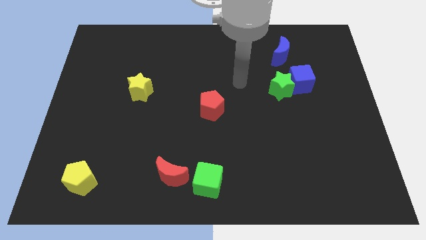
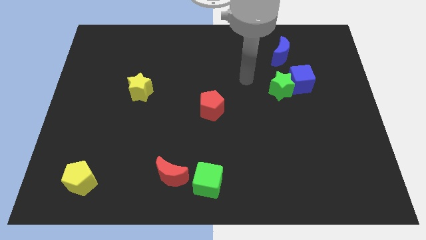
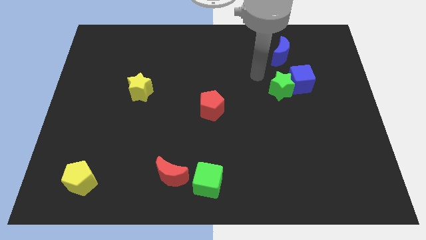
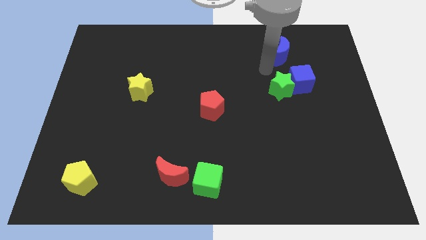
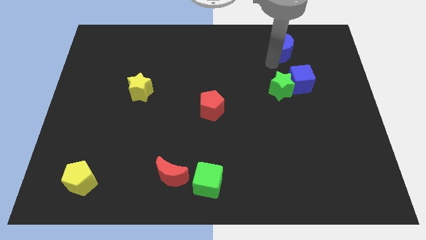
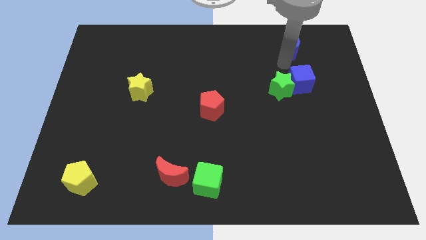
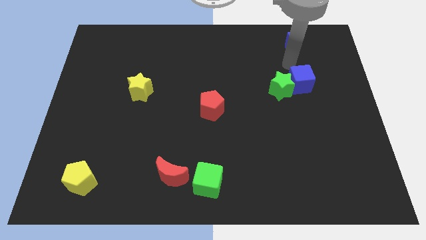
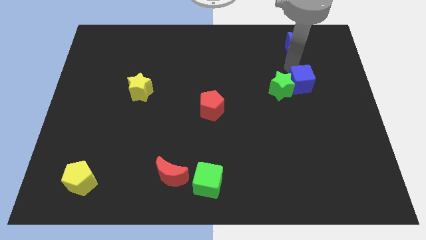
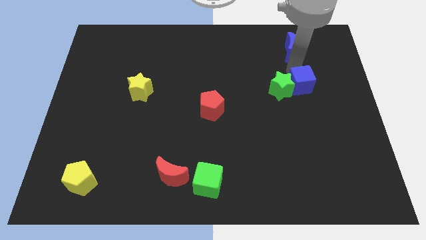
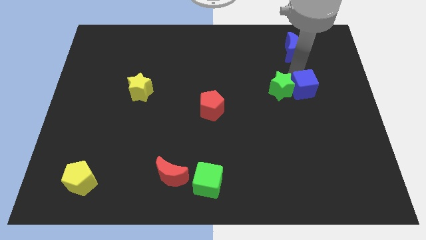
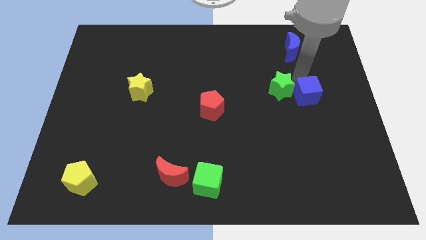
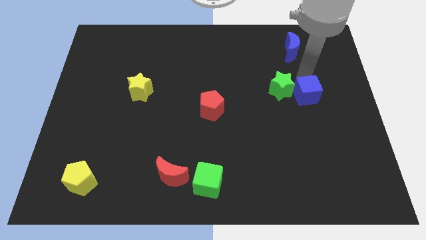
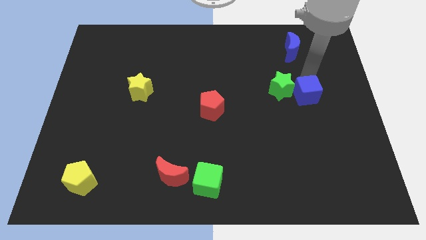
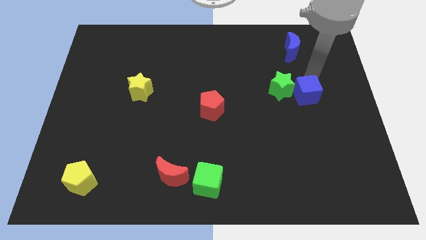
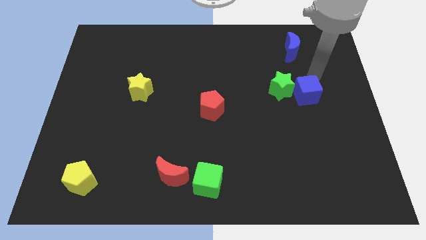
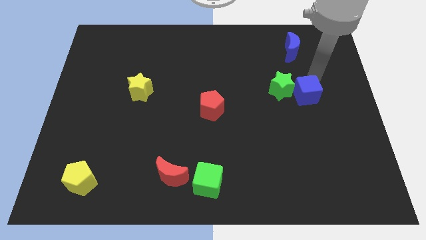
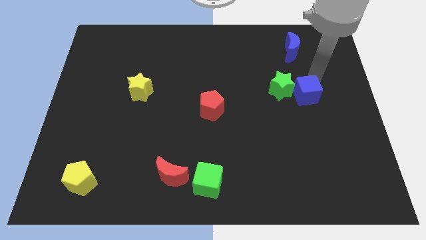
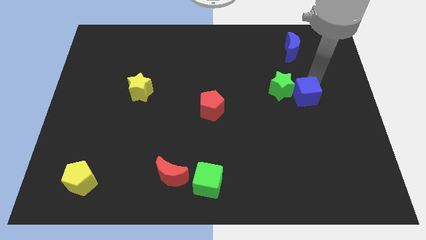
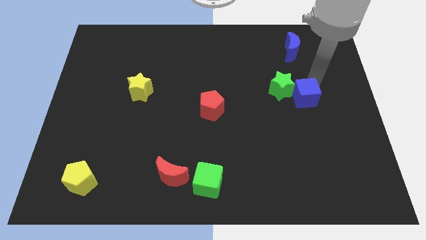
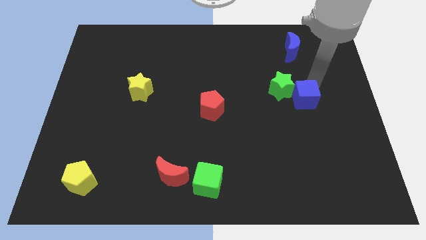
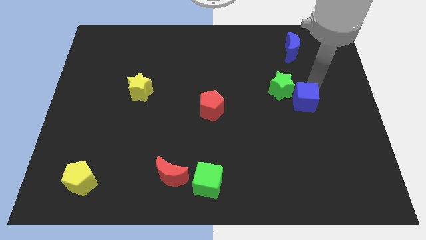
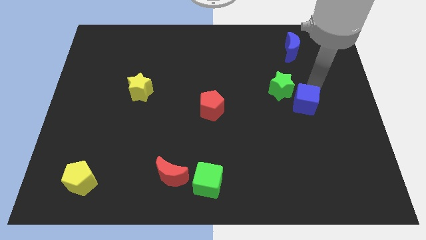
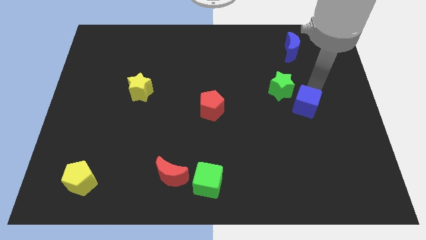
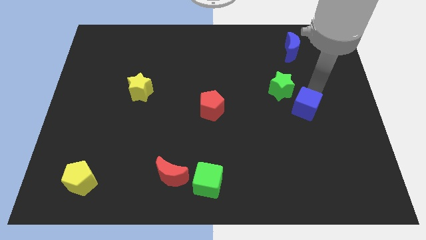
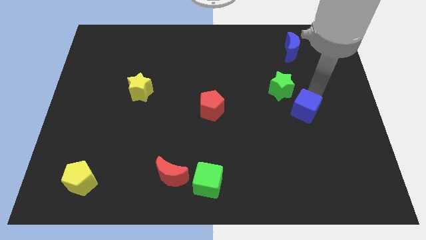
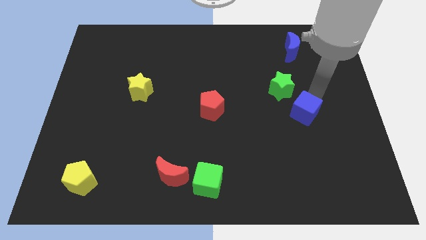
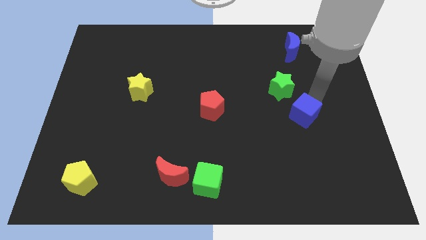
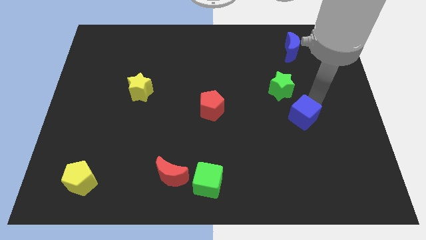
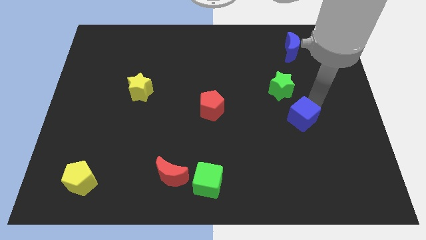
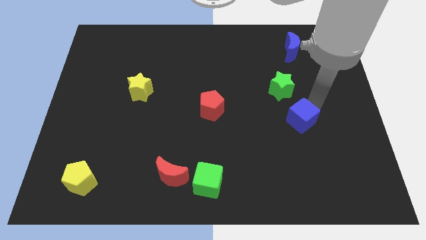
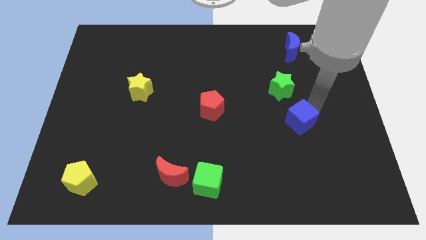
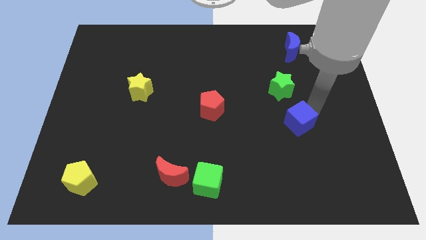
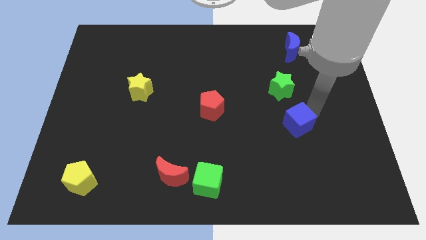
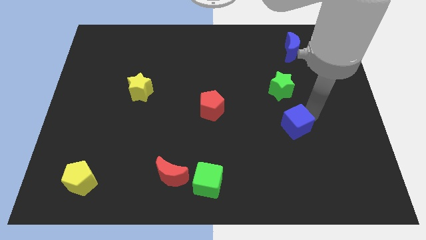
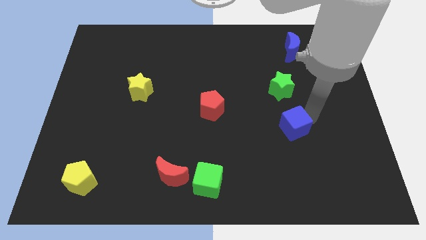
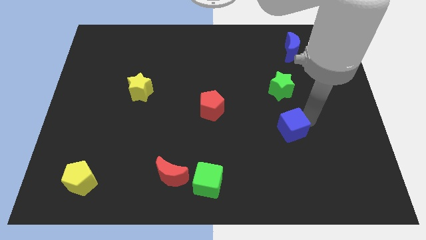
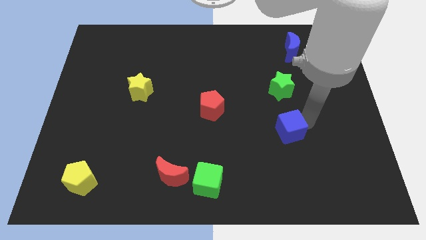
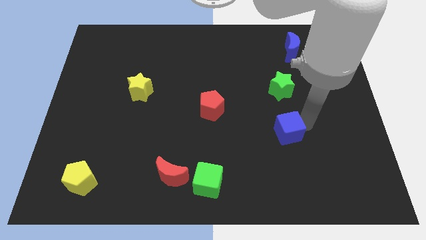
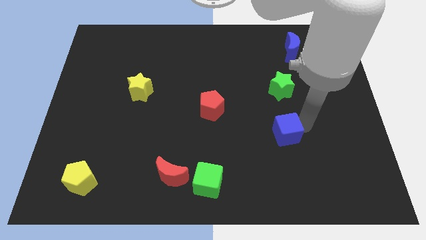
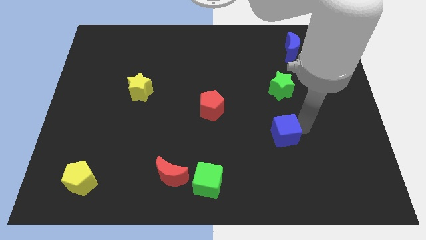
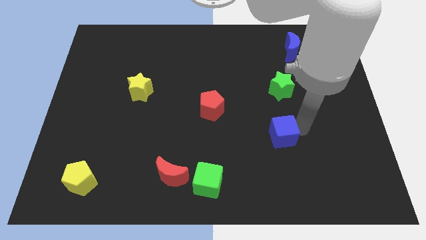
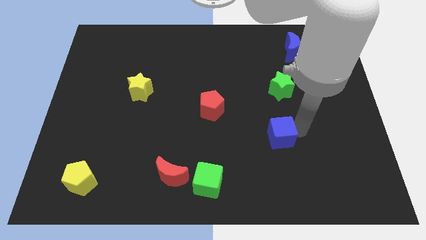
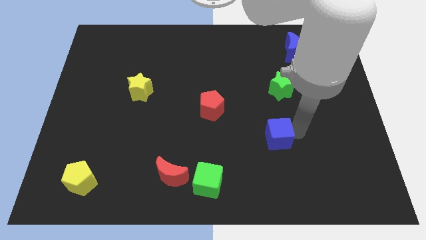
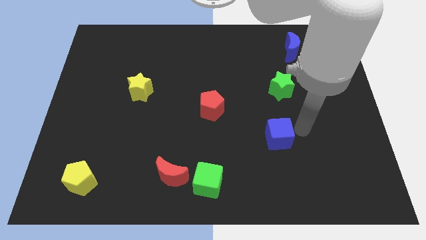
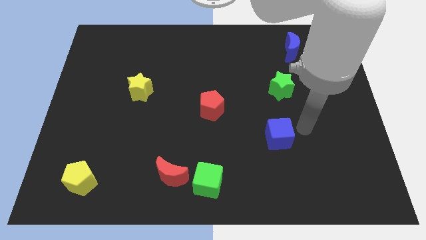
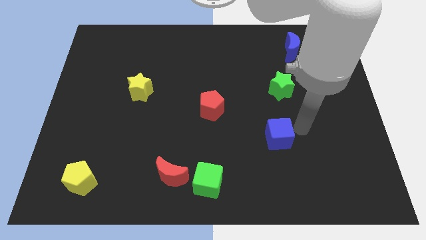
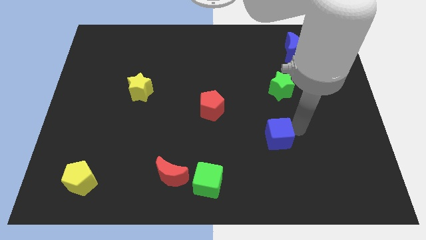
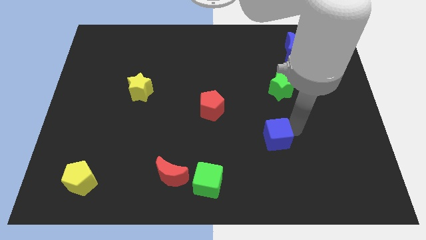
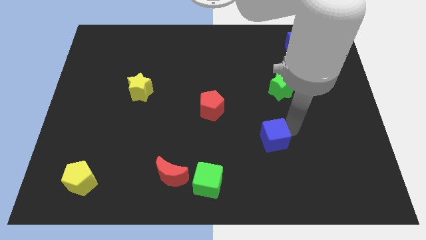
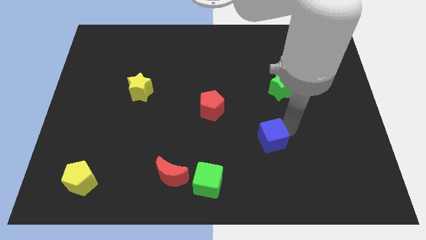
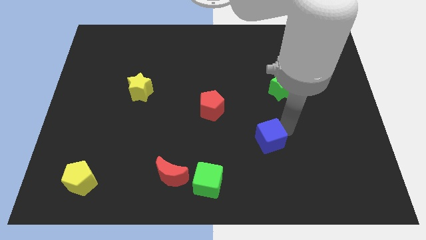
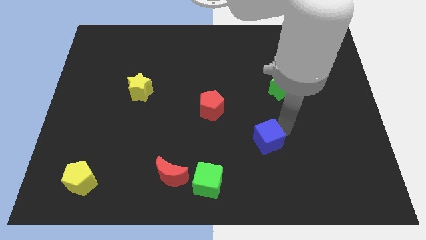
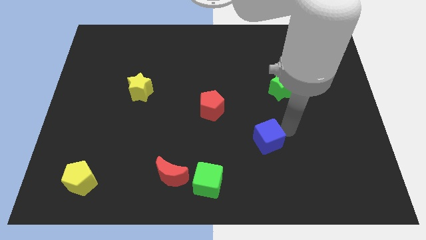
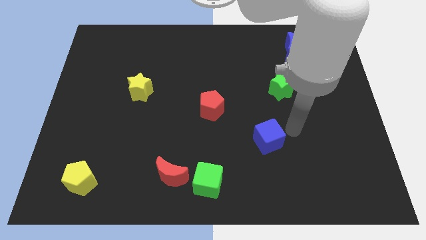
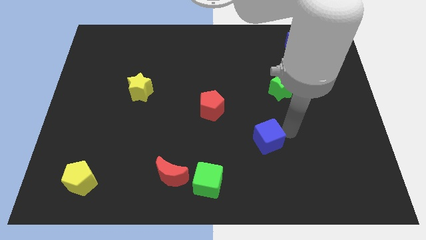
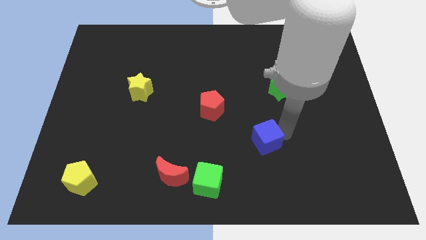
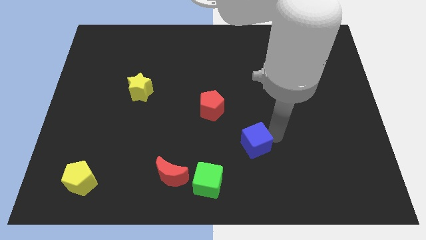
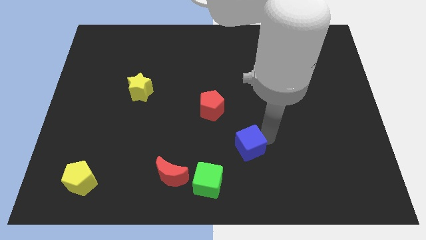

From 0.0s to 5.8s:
put the blue cube to the top right of the green cube

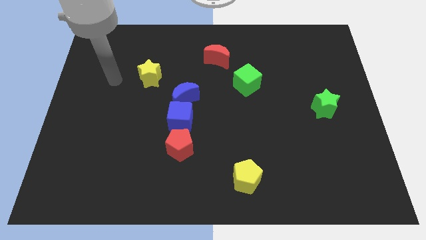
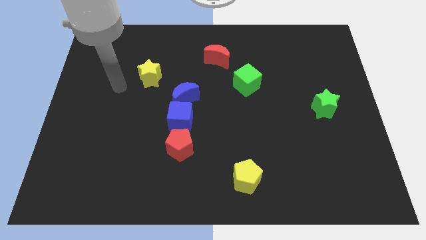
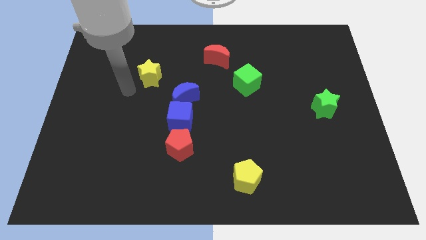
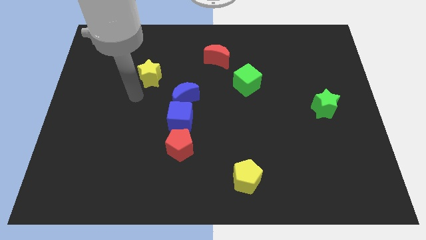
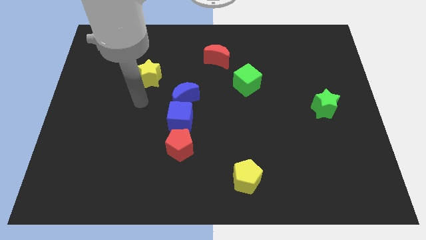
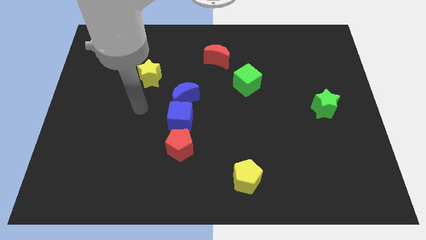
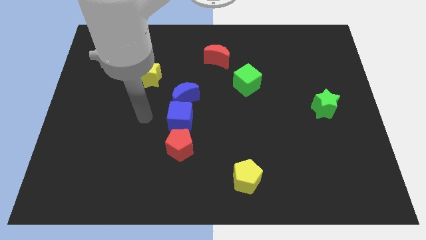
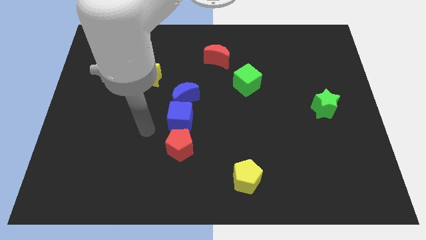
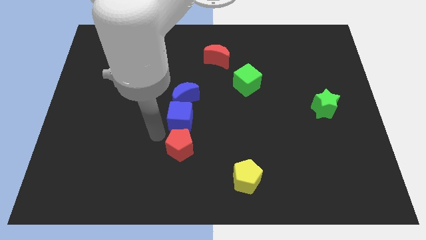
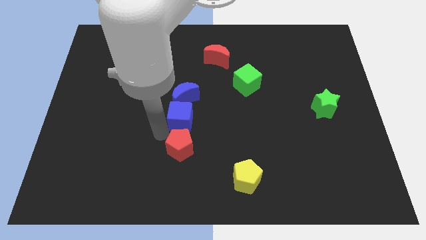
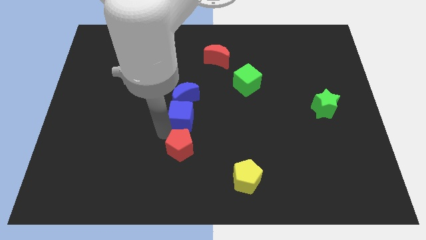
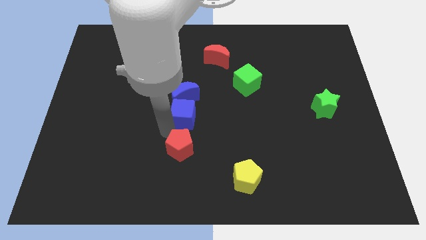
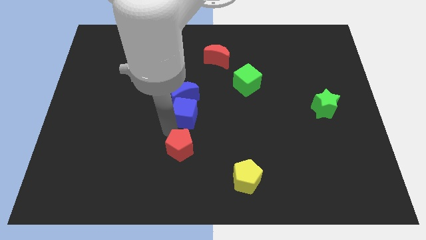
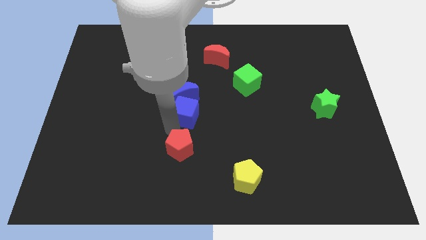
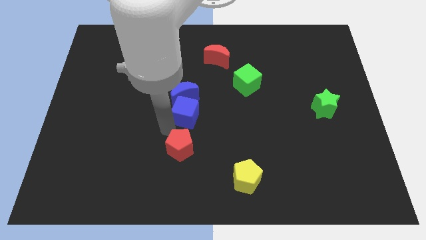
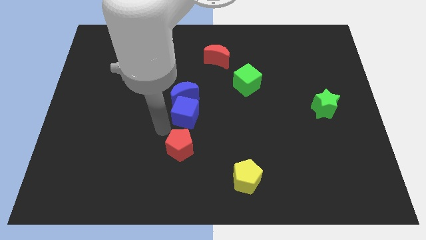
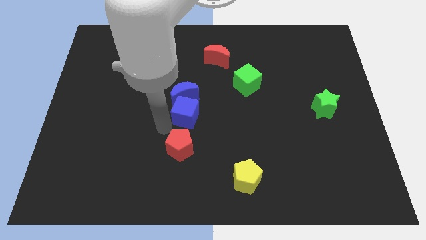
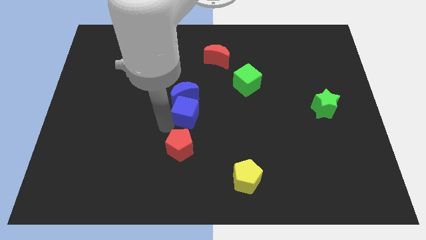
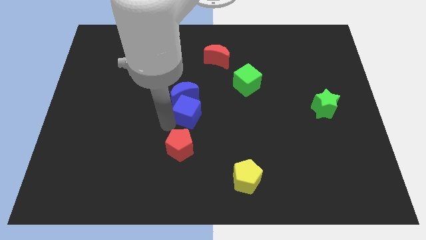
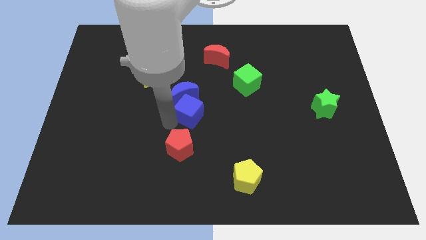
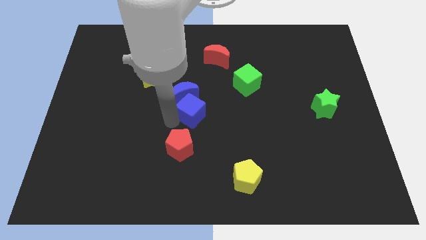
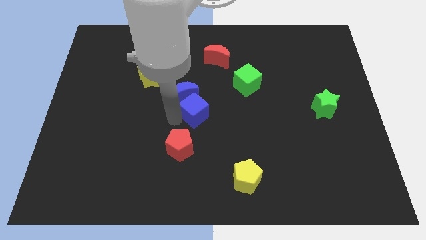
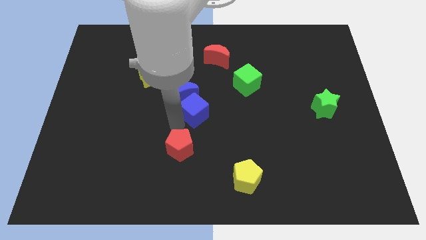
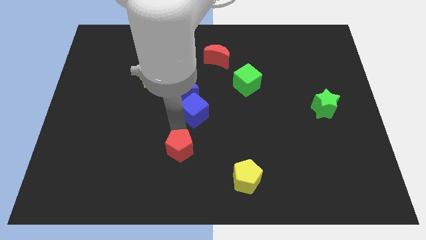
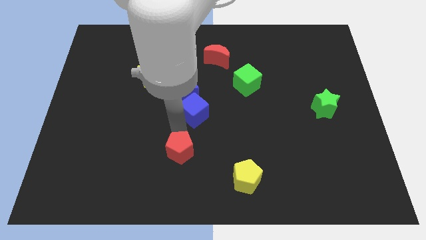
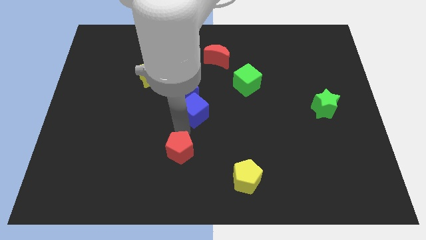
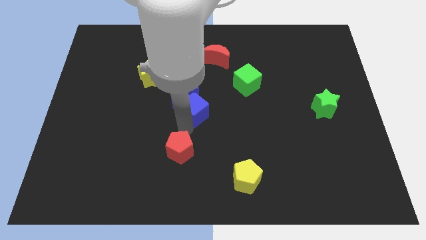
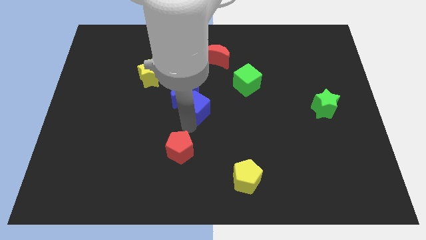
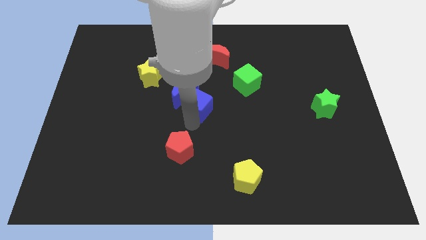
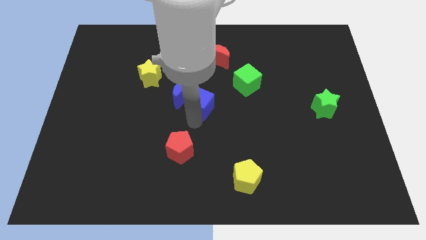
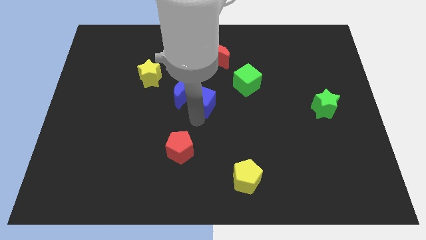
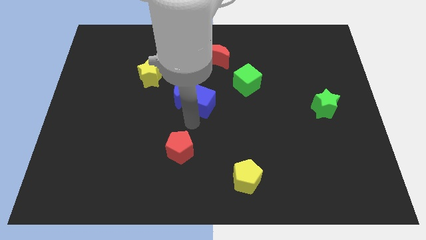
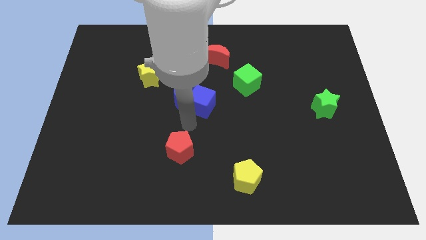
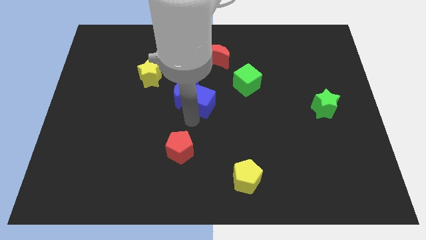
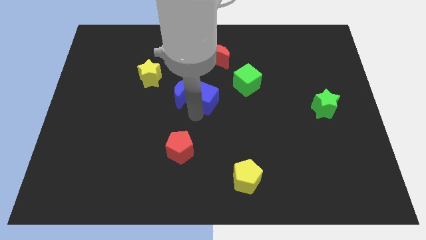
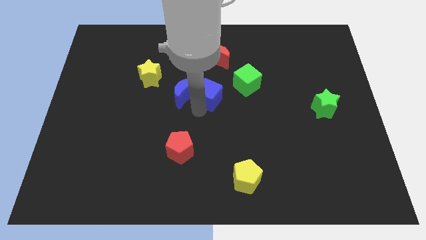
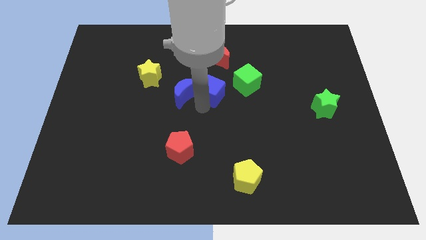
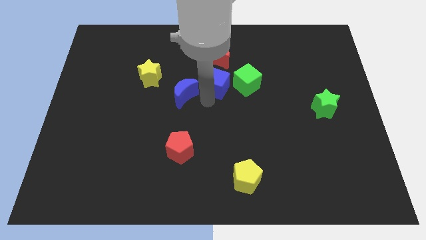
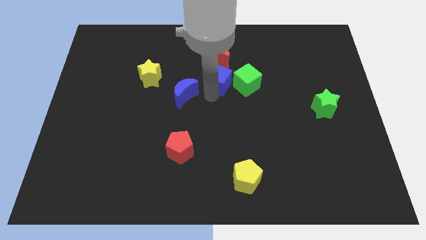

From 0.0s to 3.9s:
move the blue cube to the top left side of the green cube
